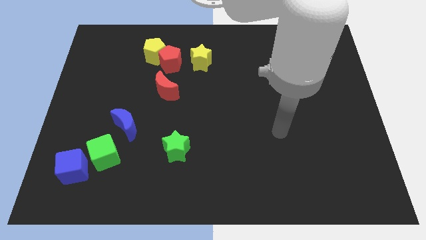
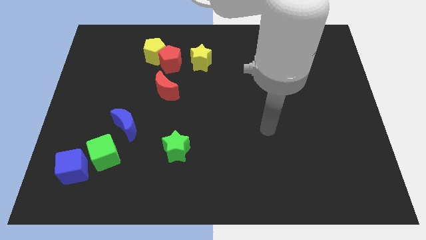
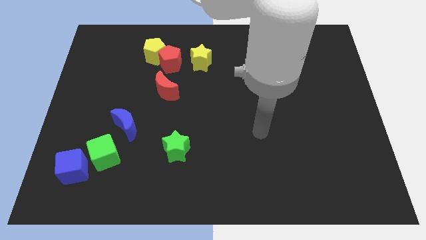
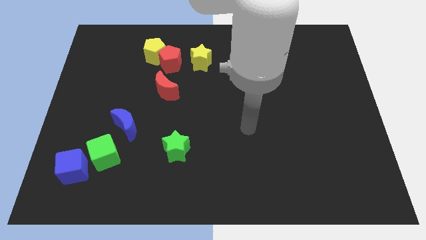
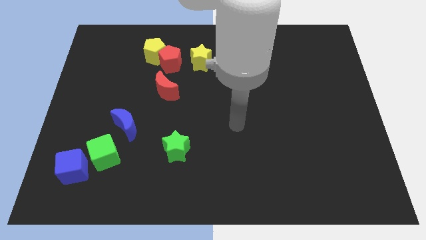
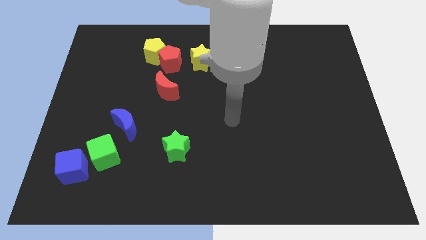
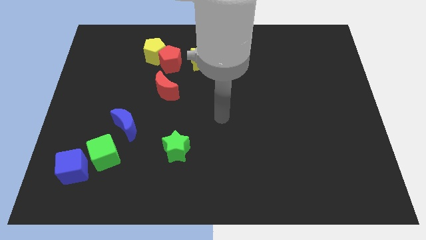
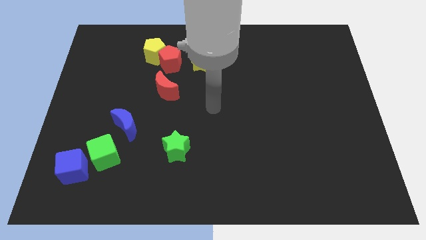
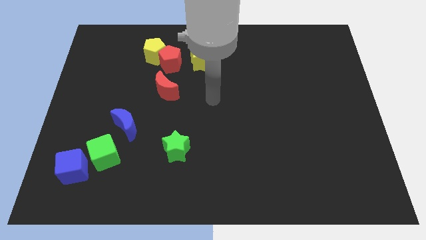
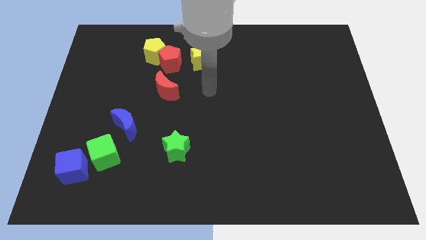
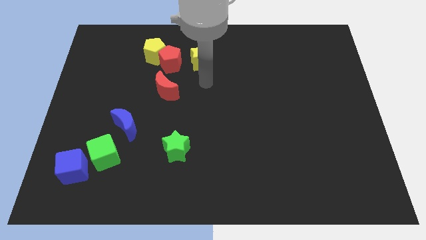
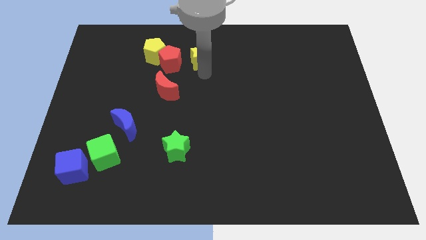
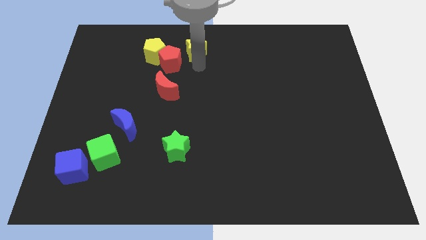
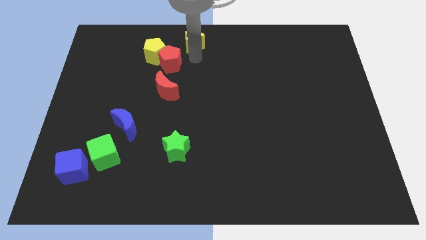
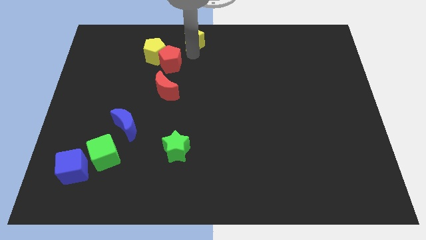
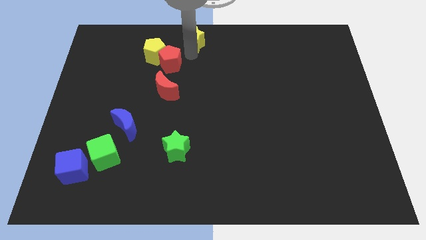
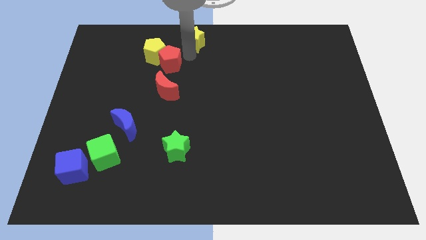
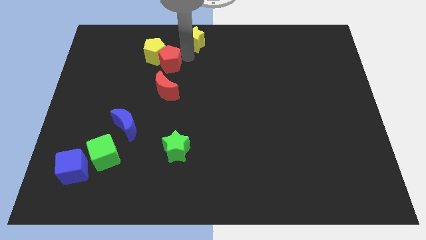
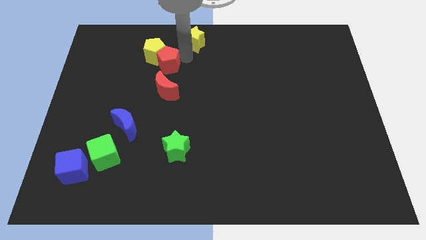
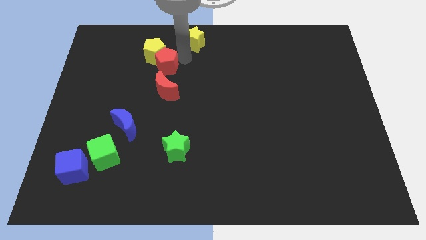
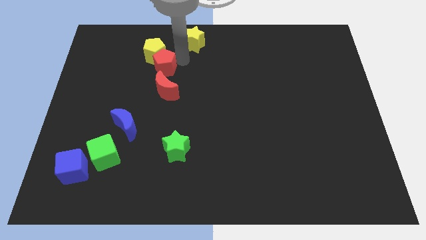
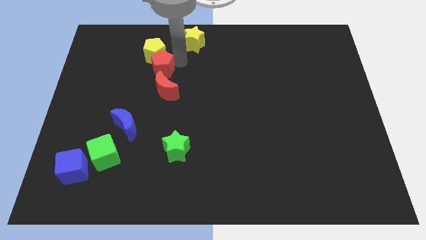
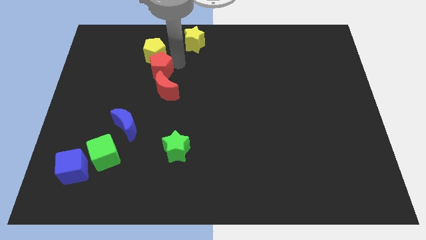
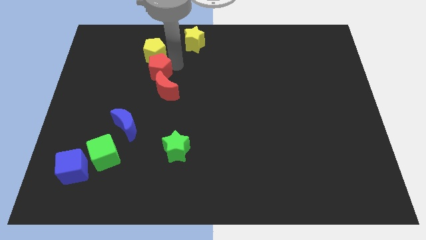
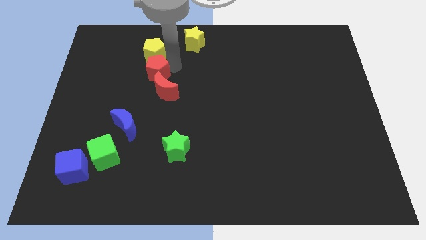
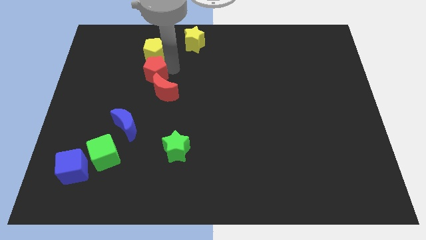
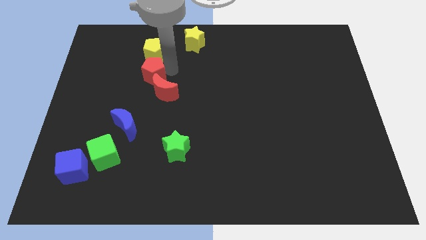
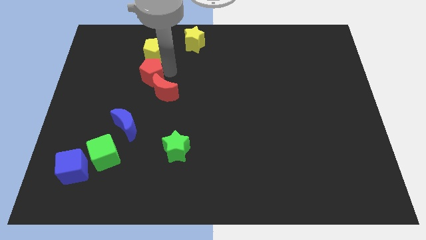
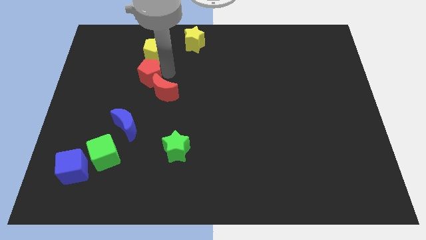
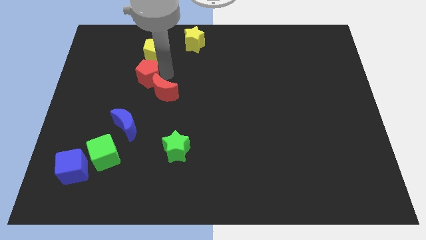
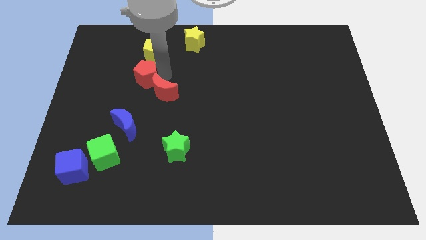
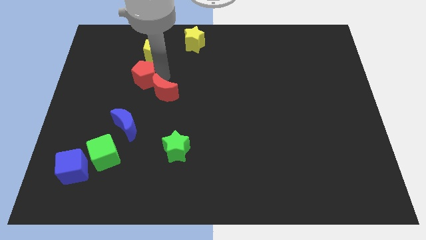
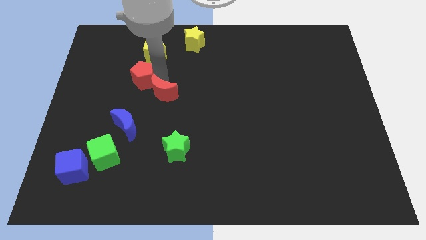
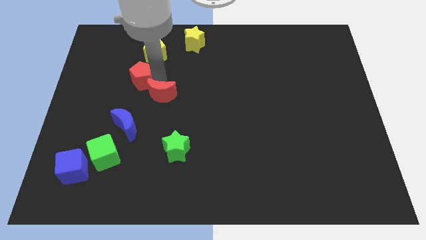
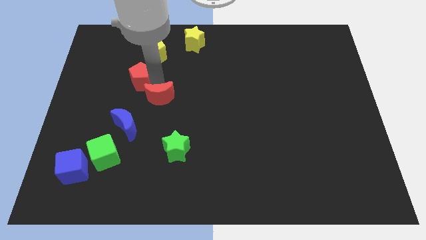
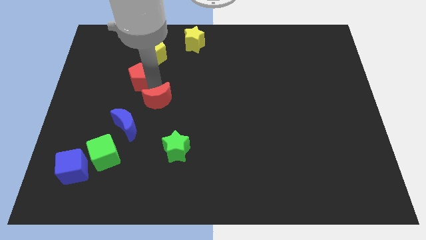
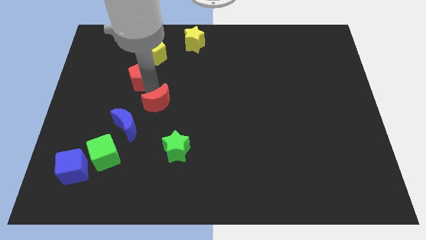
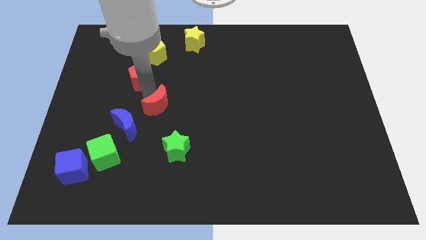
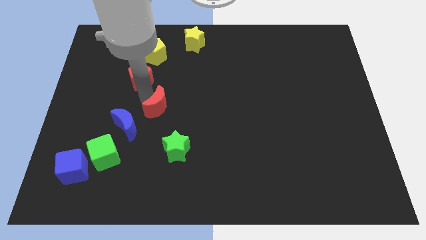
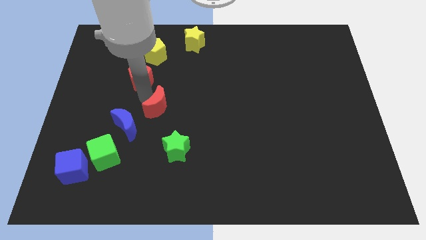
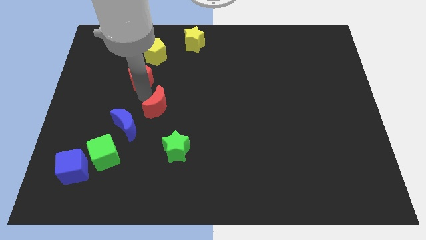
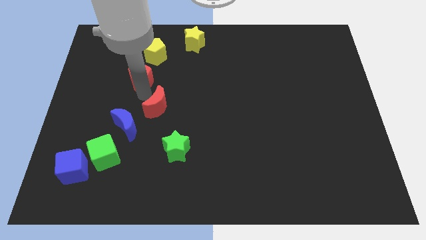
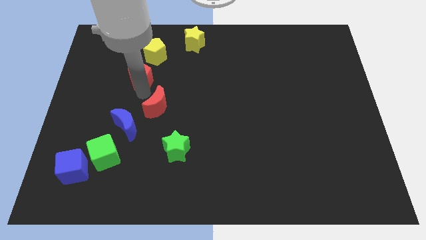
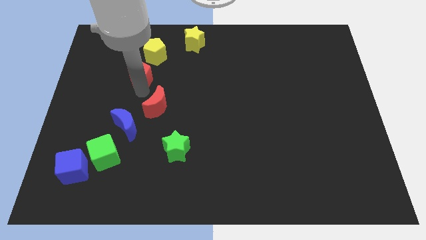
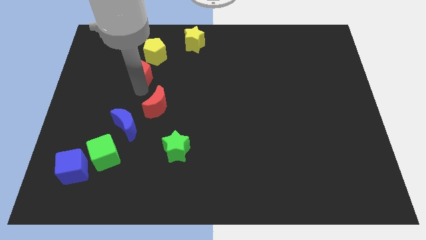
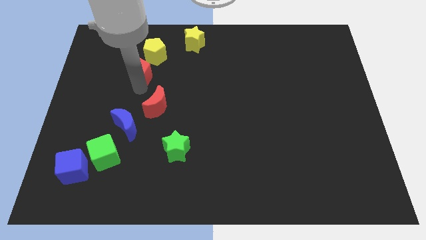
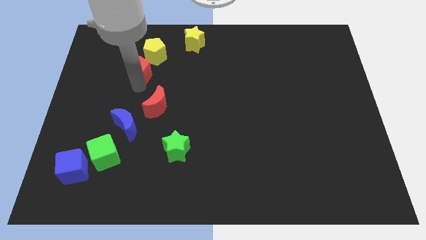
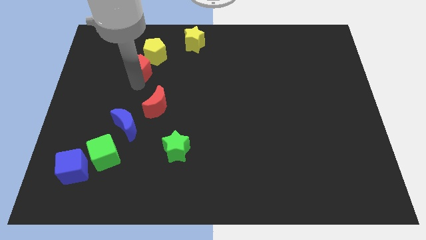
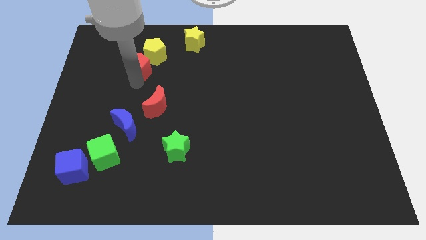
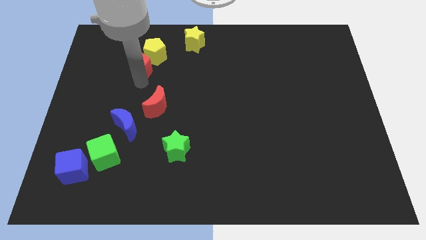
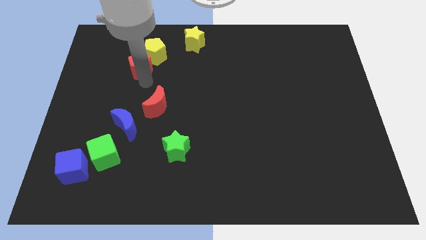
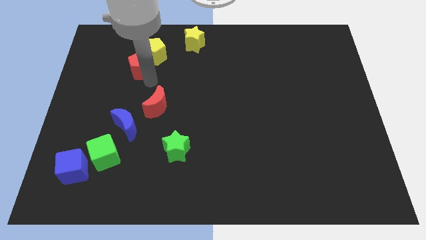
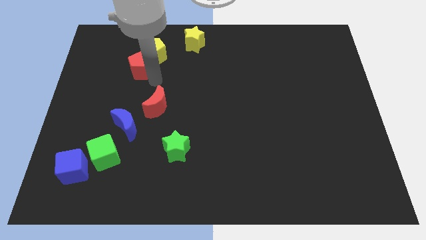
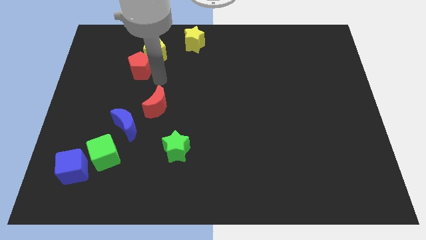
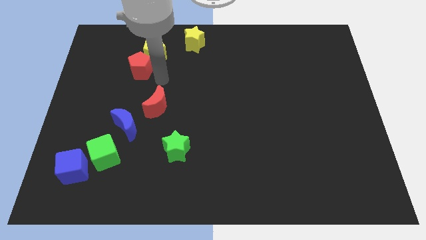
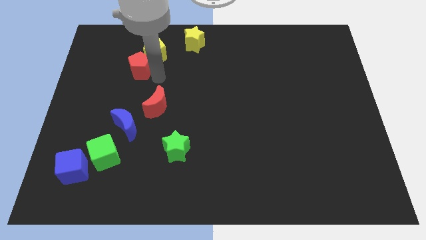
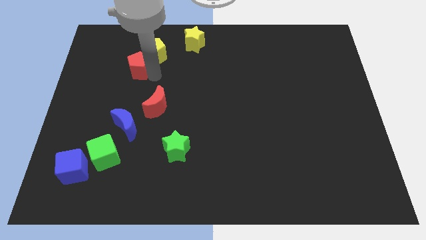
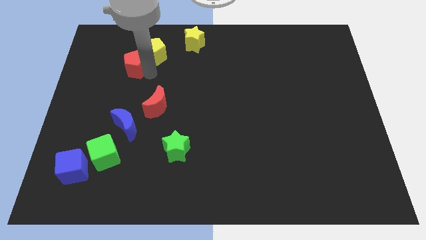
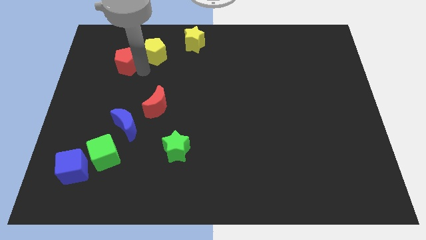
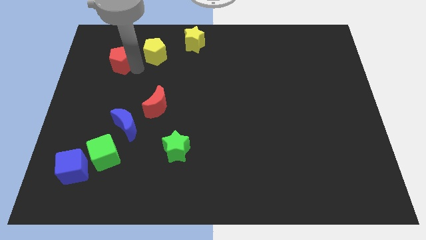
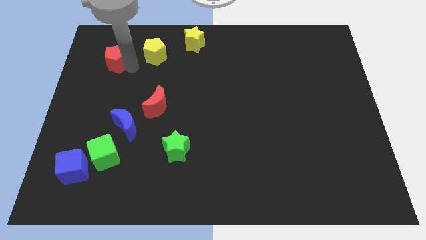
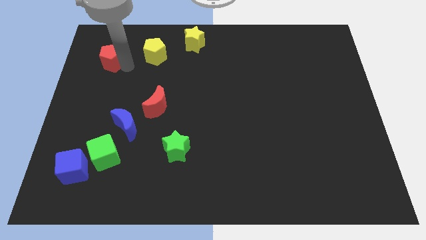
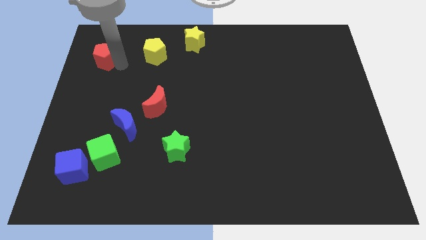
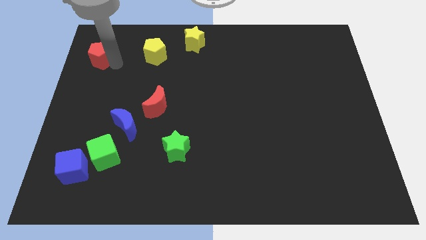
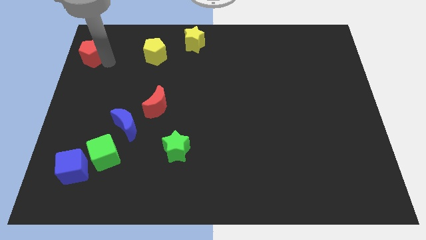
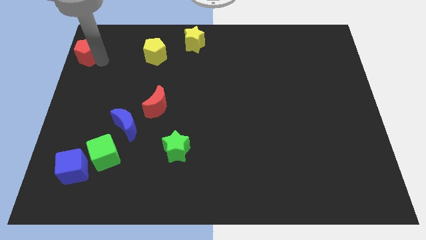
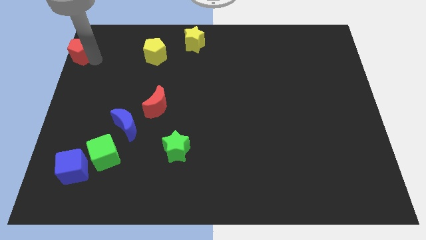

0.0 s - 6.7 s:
put the red pentagon to the top left of the board
